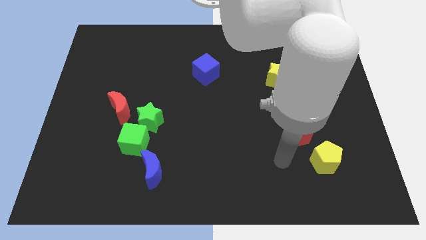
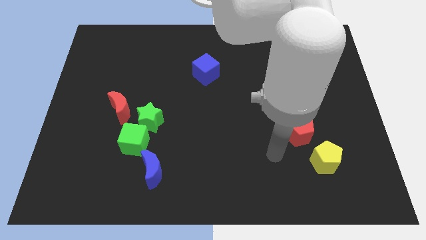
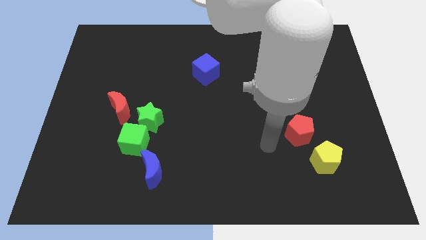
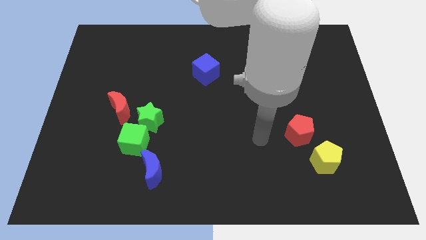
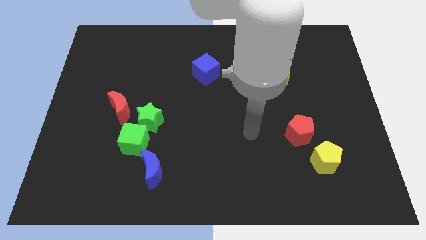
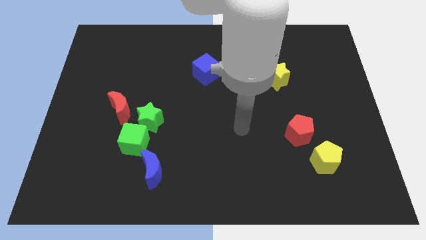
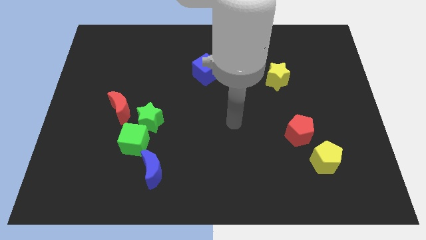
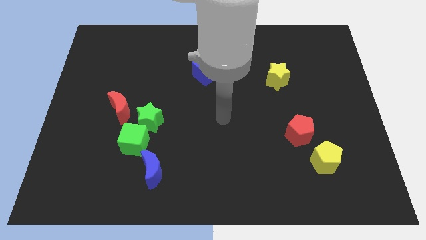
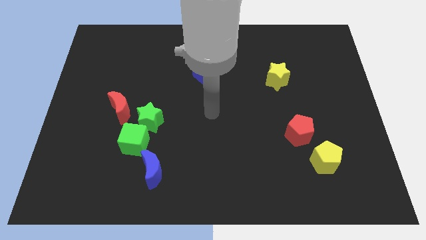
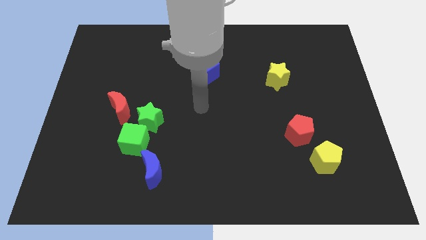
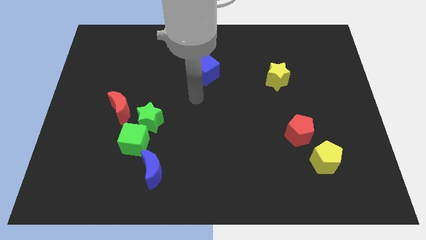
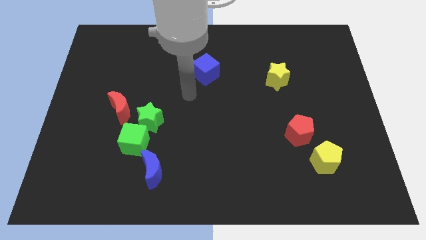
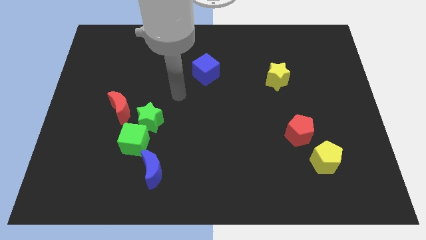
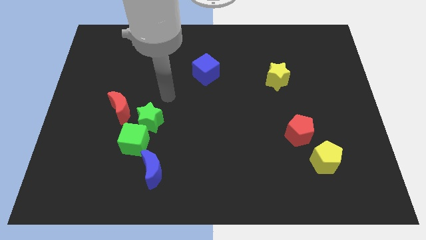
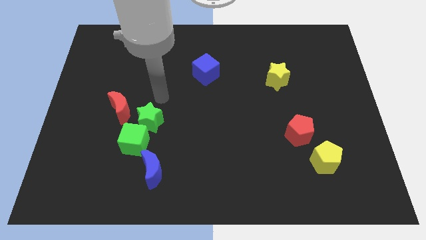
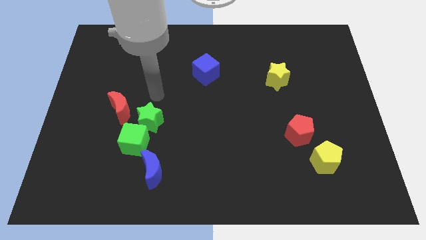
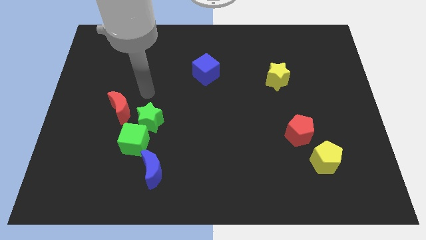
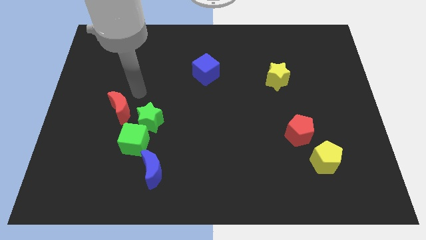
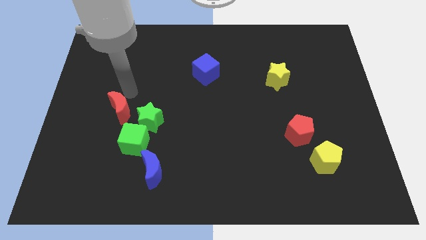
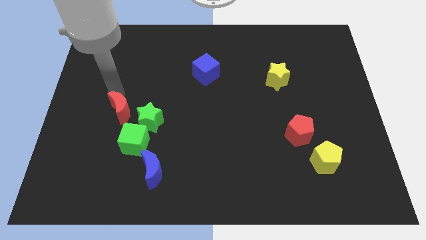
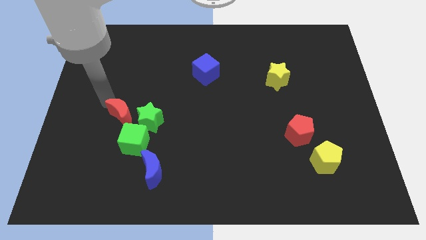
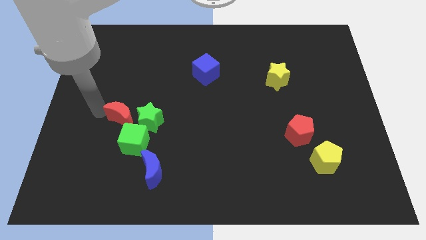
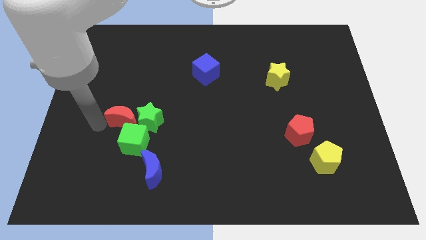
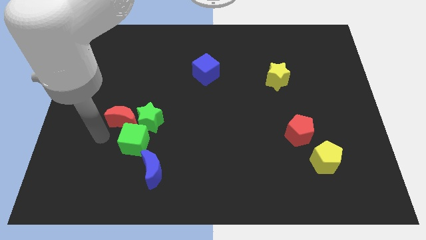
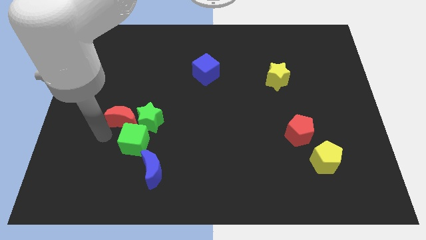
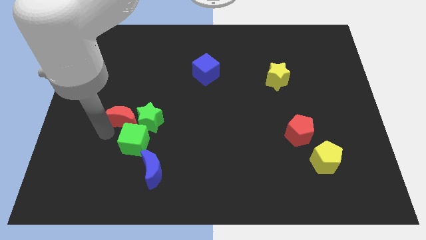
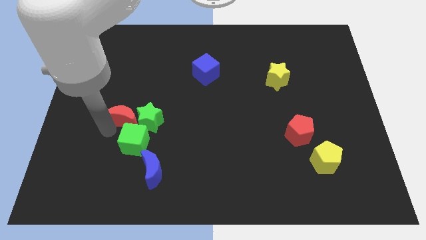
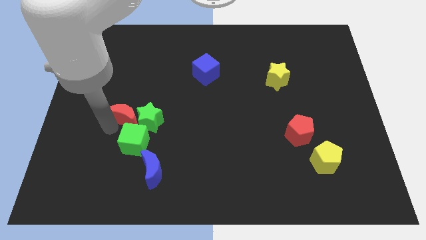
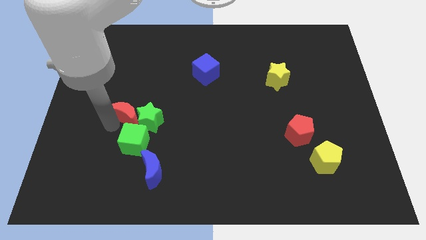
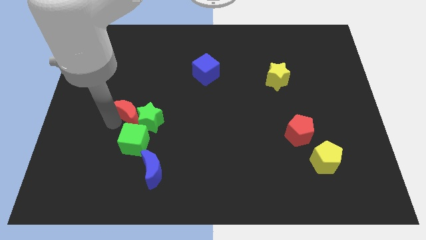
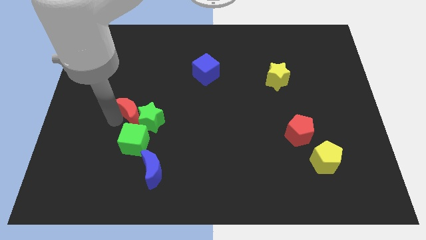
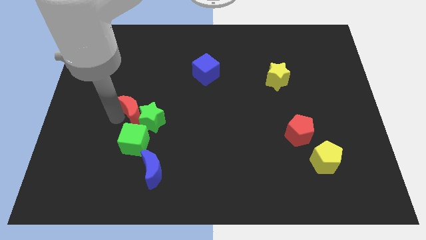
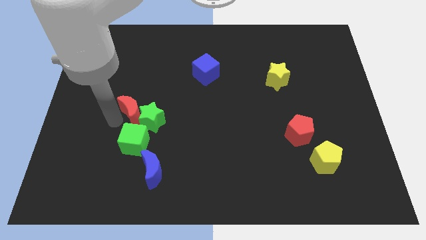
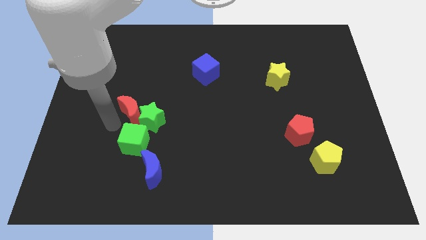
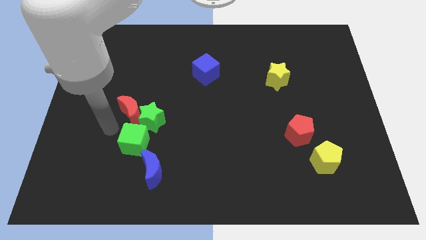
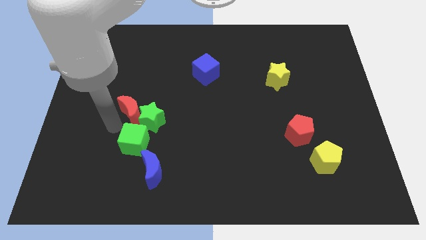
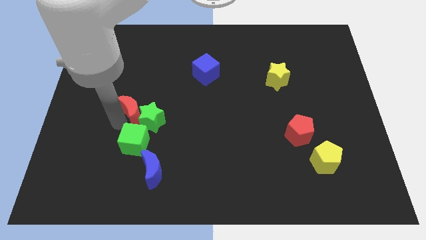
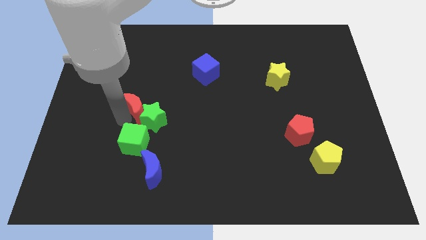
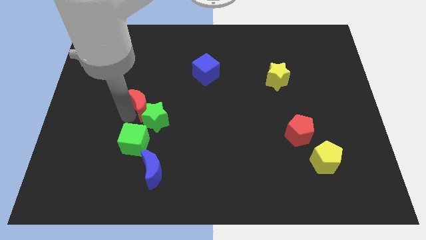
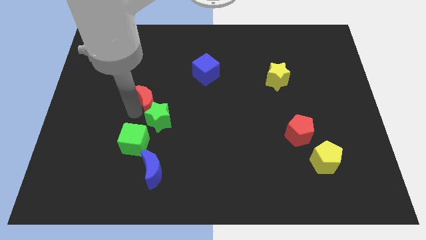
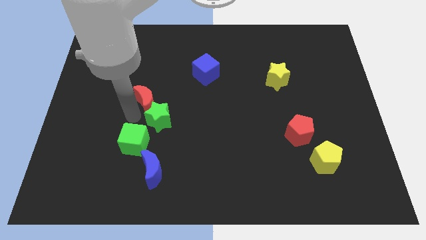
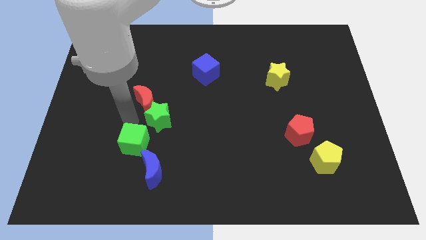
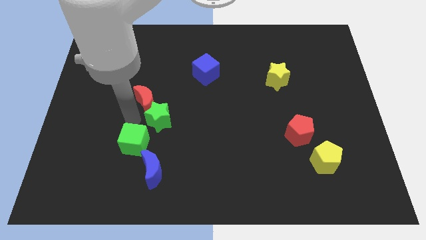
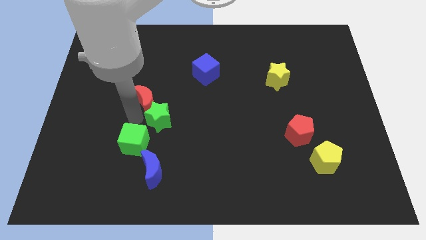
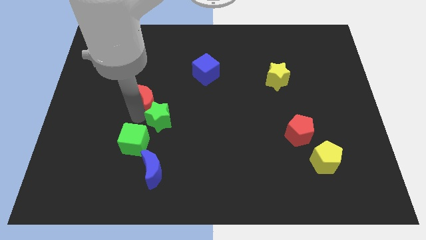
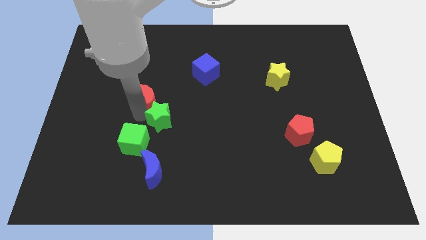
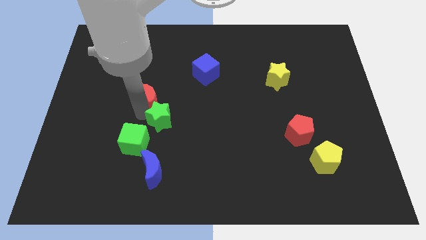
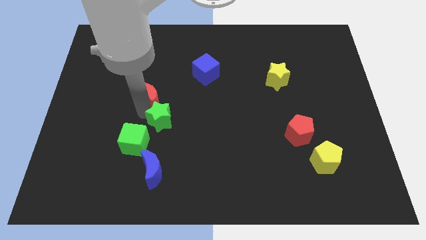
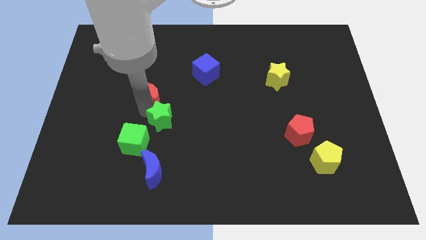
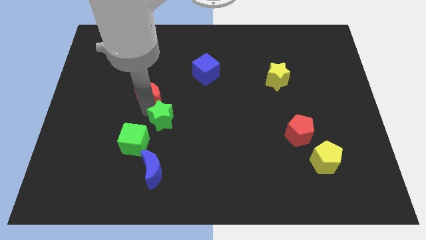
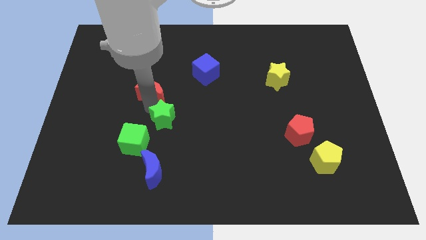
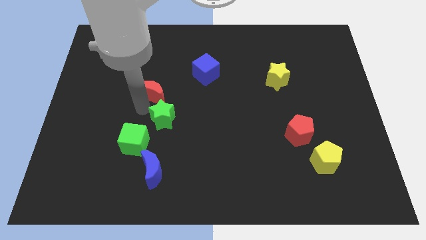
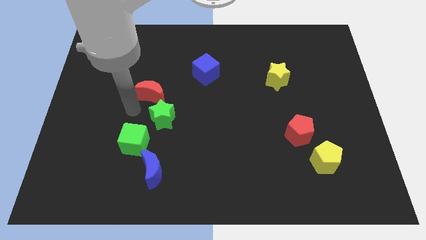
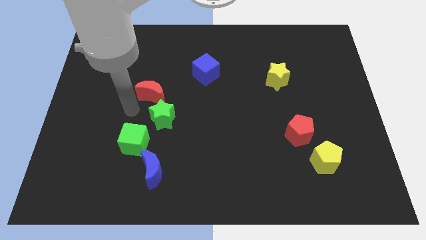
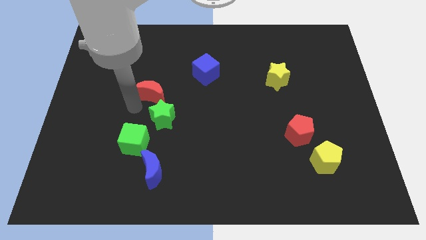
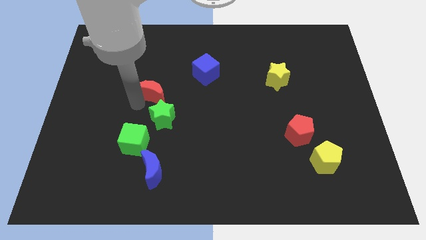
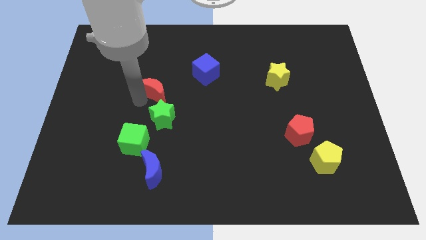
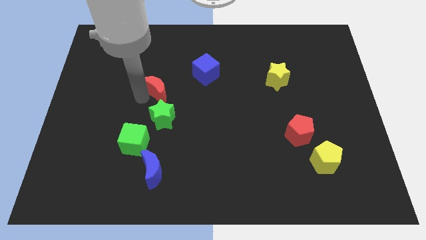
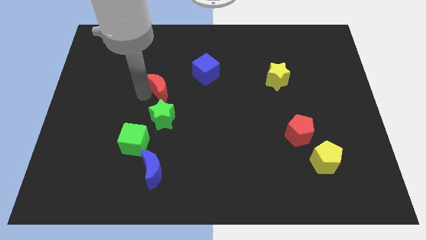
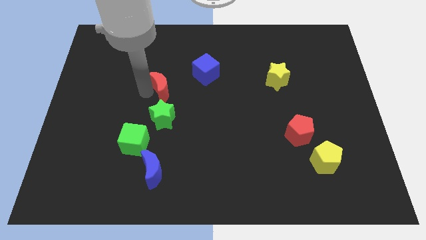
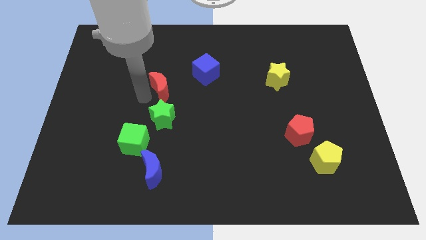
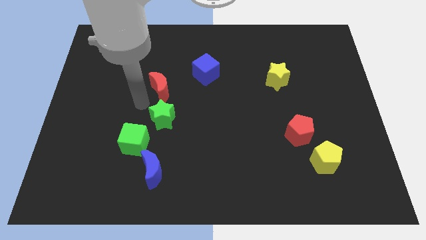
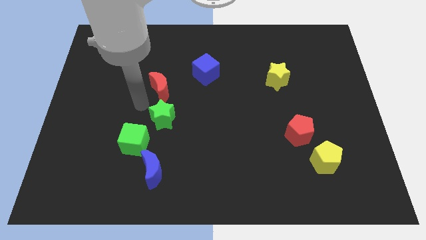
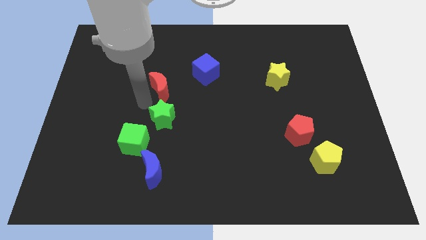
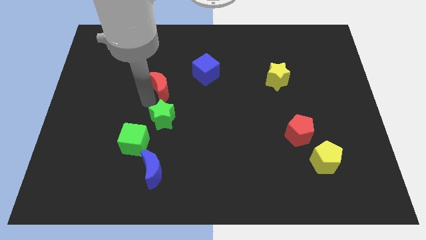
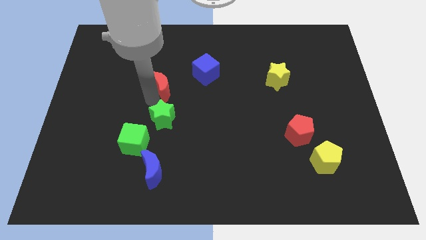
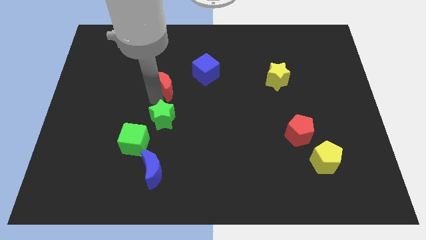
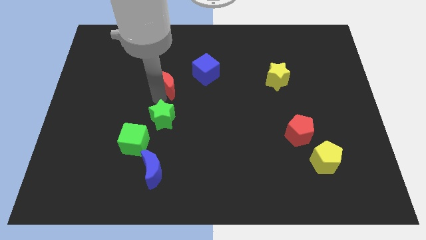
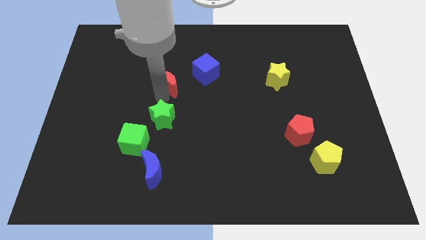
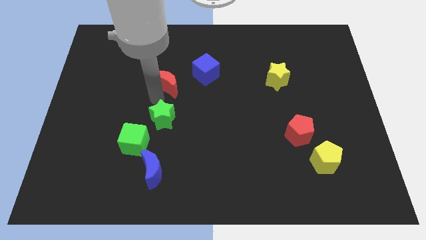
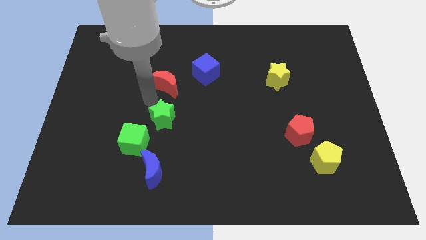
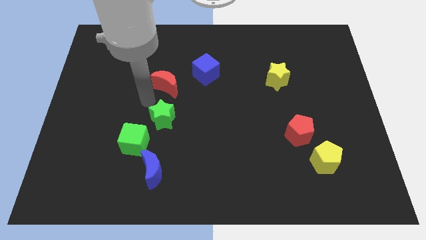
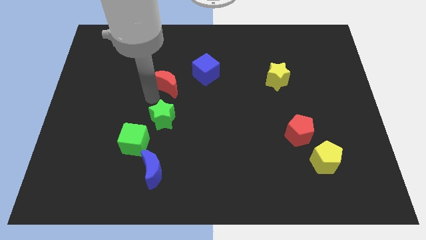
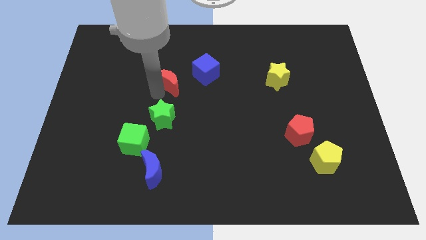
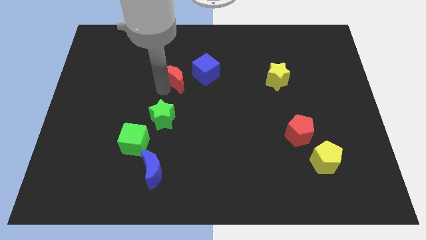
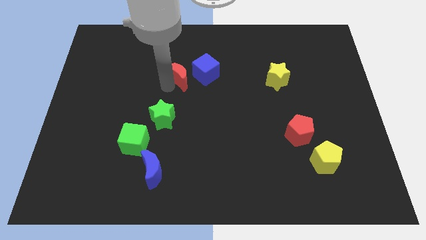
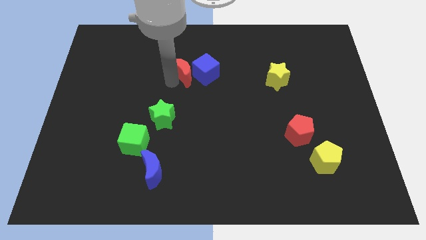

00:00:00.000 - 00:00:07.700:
put the red moon towards the blue cube

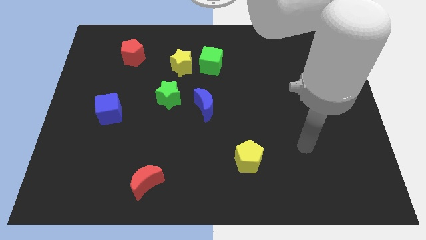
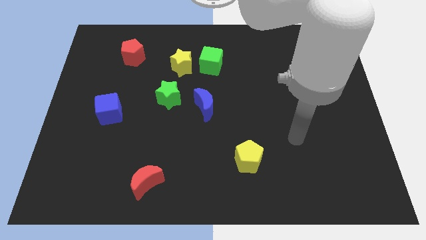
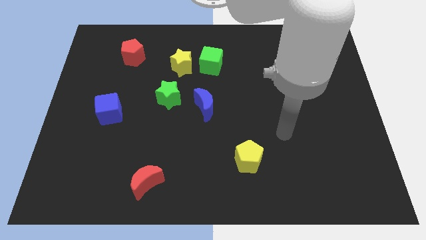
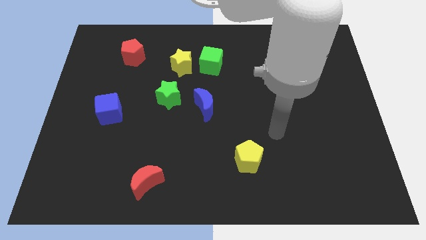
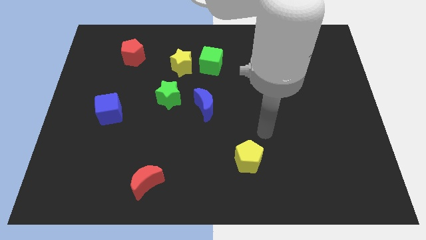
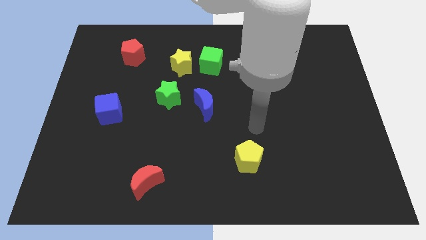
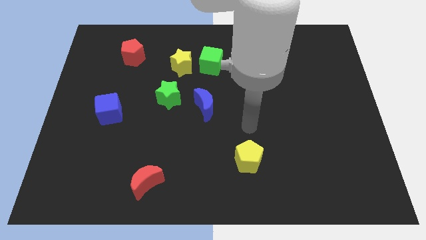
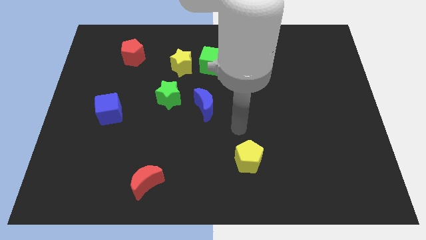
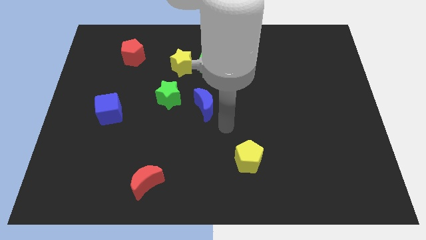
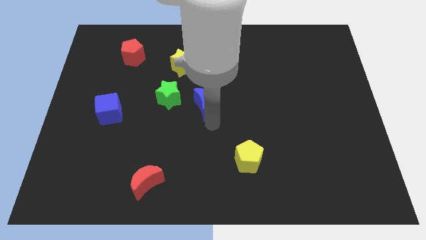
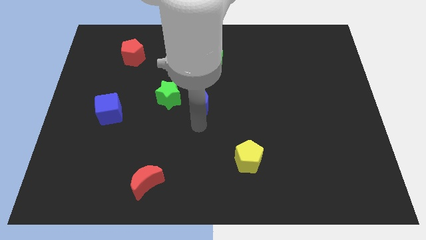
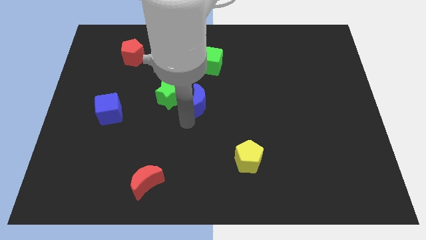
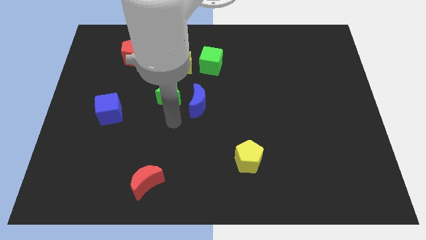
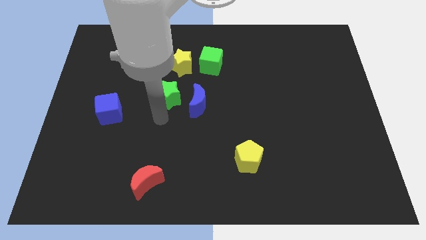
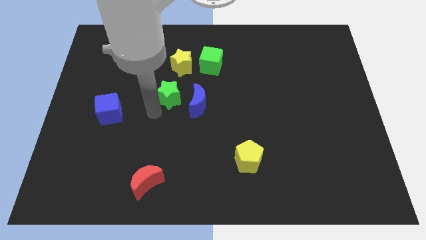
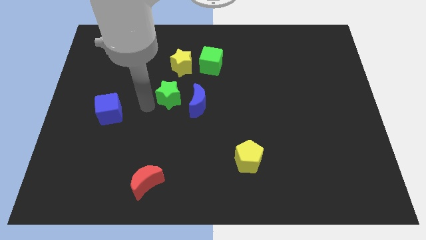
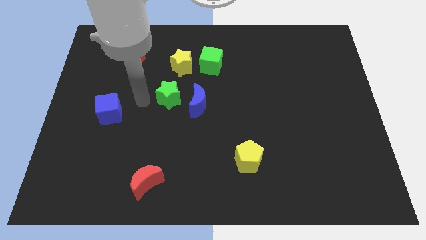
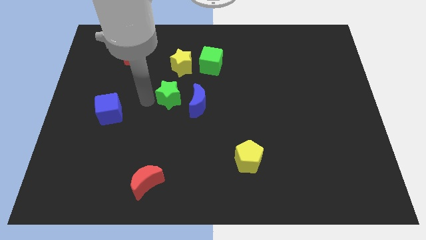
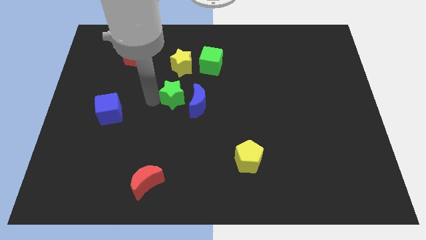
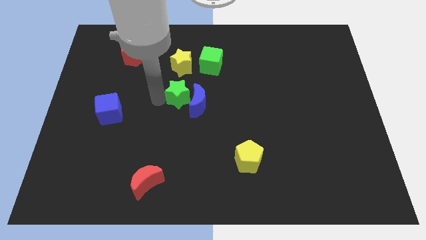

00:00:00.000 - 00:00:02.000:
move the green star close to the blue moon
